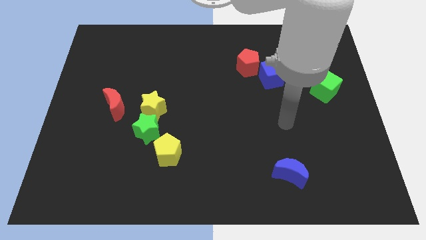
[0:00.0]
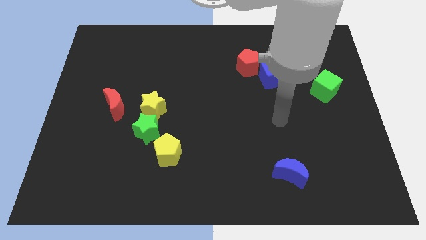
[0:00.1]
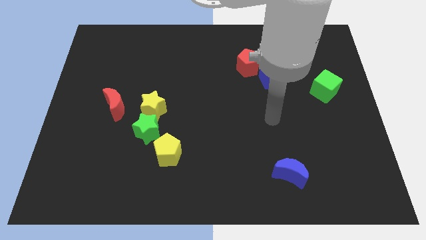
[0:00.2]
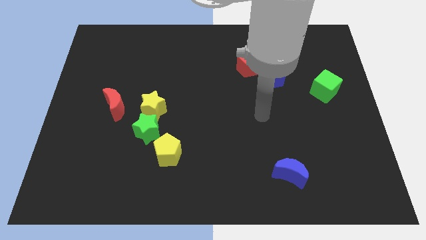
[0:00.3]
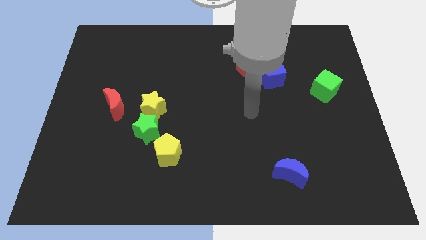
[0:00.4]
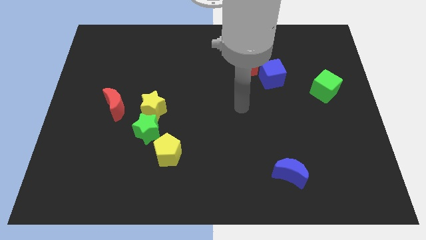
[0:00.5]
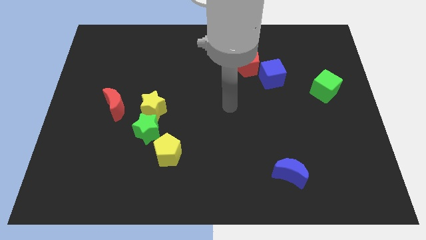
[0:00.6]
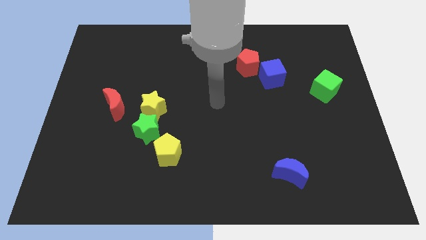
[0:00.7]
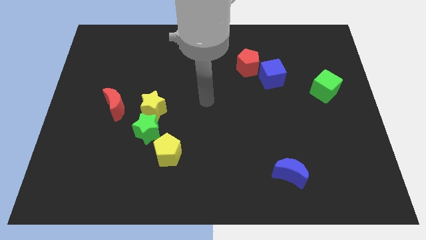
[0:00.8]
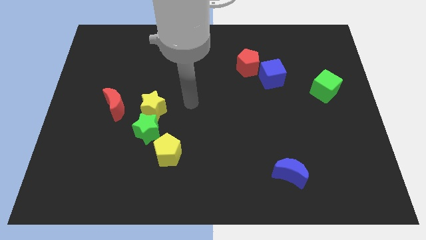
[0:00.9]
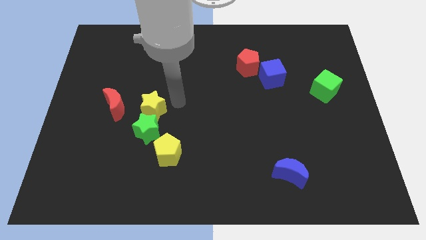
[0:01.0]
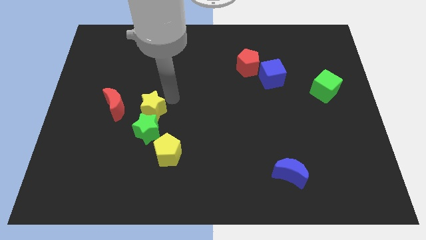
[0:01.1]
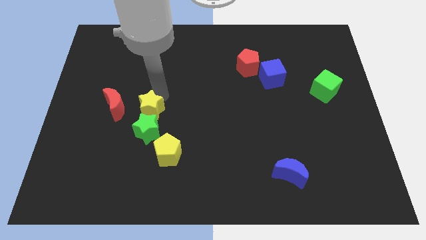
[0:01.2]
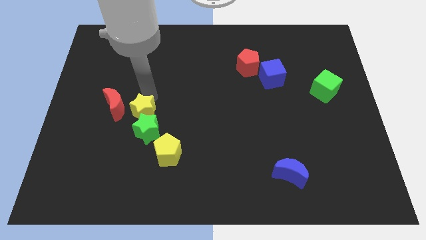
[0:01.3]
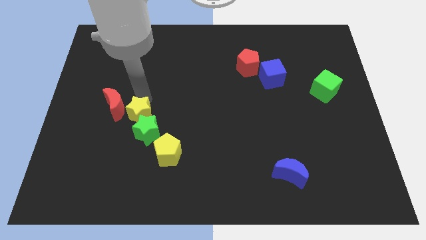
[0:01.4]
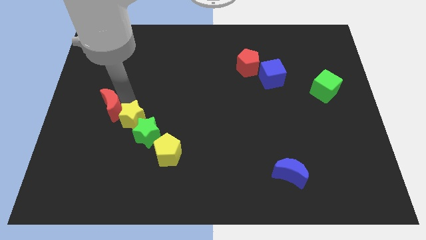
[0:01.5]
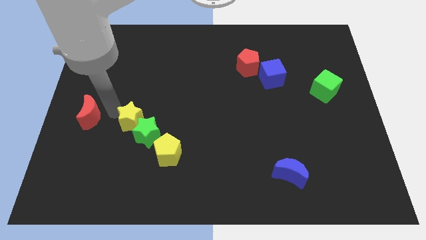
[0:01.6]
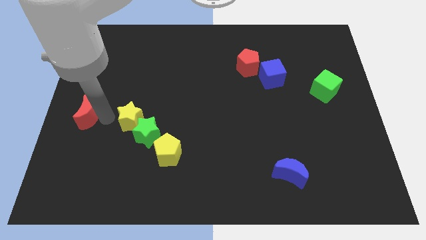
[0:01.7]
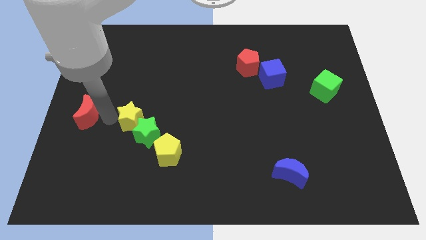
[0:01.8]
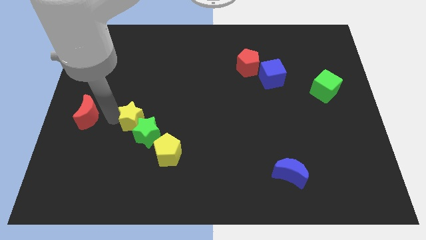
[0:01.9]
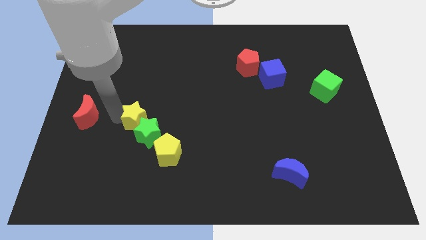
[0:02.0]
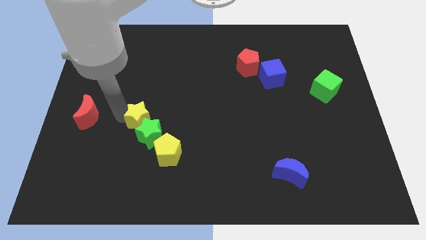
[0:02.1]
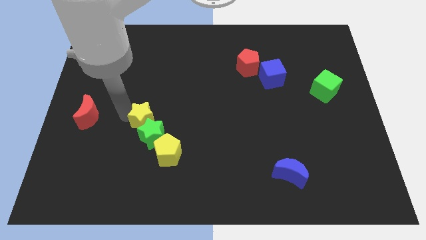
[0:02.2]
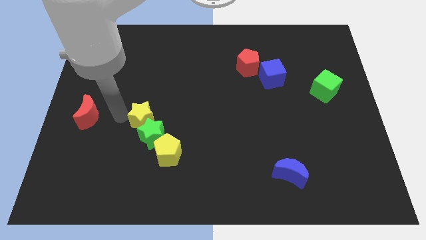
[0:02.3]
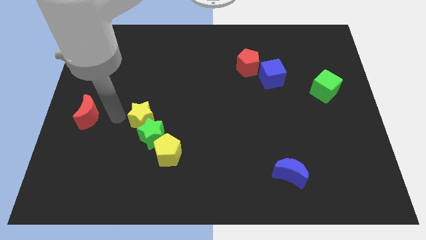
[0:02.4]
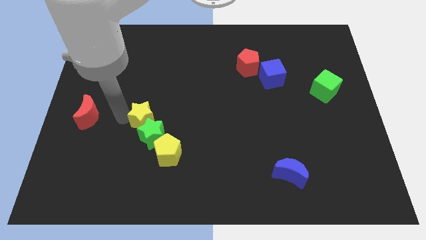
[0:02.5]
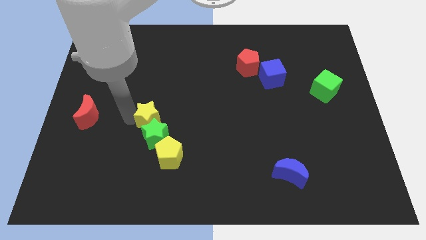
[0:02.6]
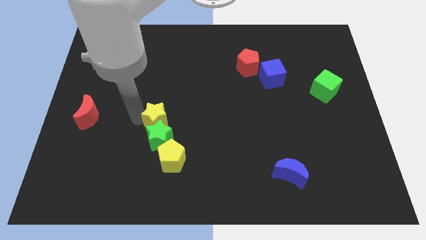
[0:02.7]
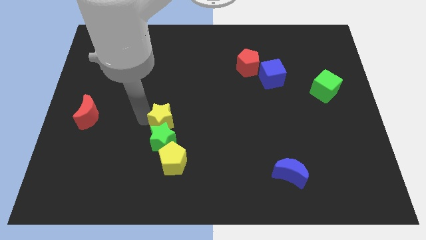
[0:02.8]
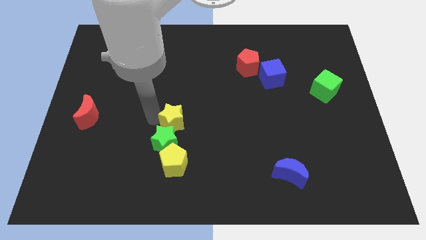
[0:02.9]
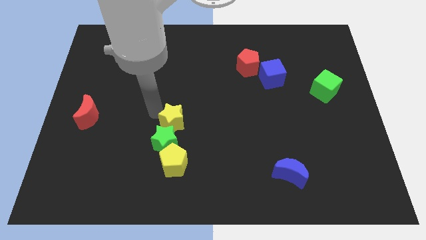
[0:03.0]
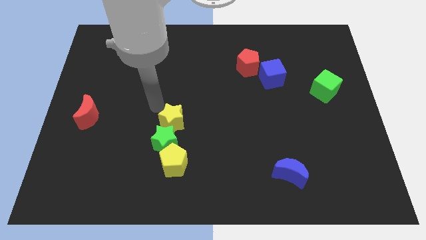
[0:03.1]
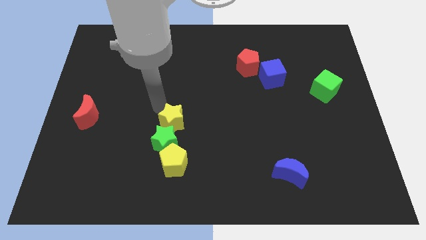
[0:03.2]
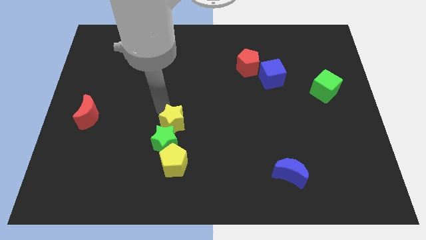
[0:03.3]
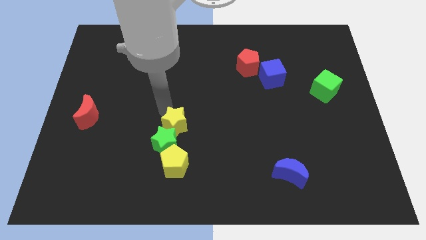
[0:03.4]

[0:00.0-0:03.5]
move the yellow star down and then to the right somewhat

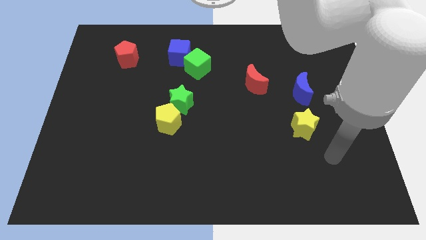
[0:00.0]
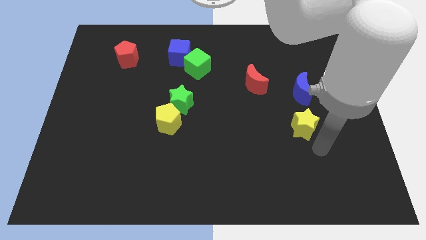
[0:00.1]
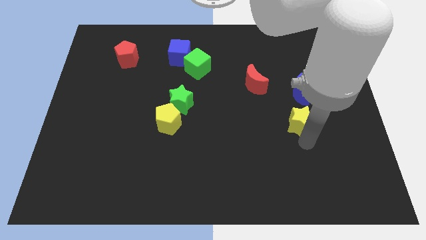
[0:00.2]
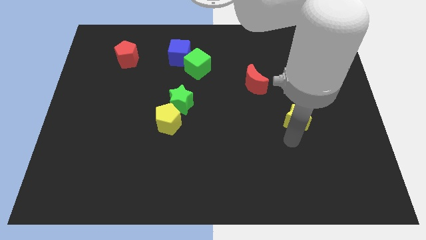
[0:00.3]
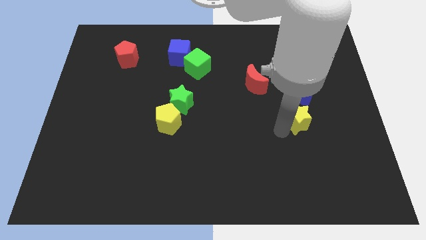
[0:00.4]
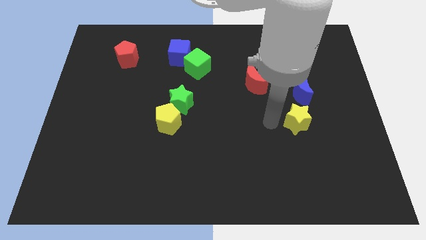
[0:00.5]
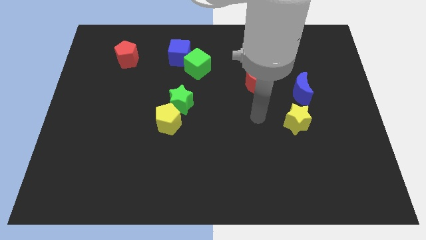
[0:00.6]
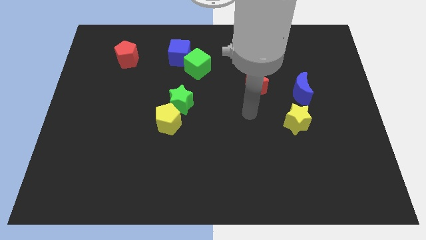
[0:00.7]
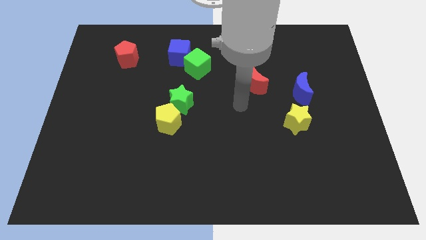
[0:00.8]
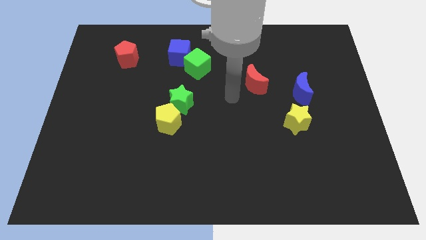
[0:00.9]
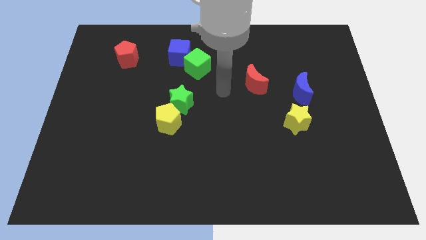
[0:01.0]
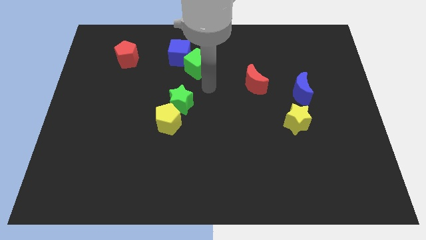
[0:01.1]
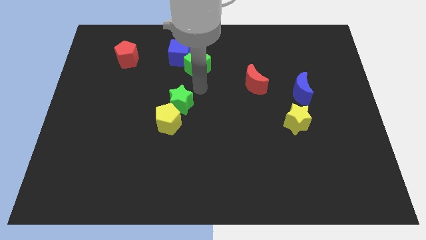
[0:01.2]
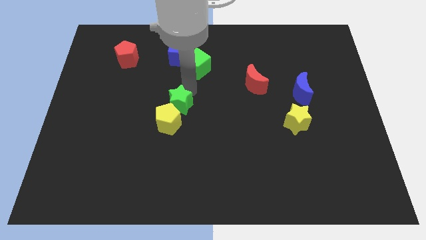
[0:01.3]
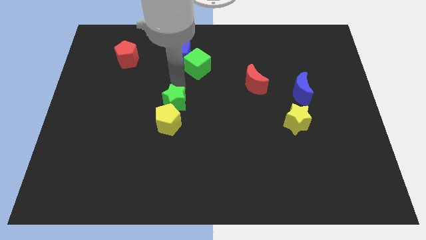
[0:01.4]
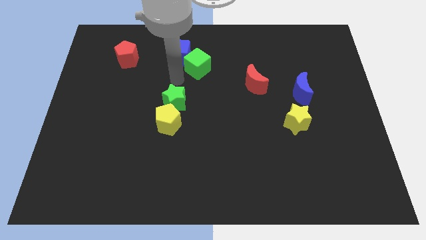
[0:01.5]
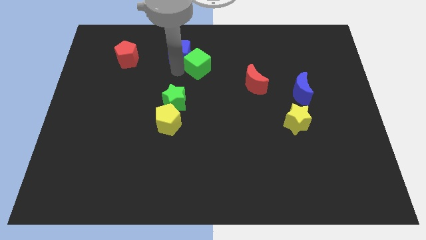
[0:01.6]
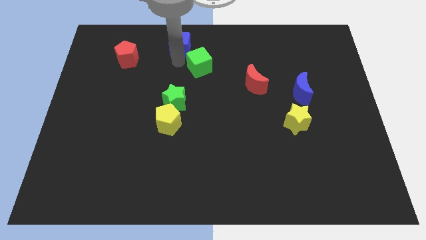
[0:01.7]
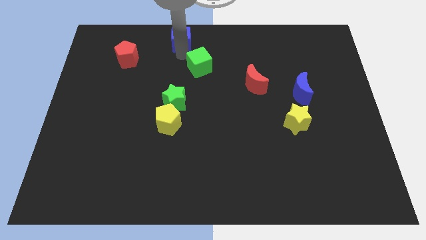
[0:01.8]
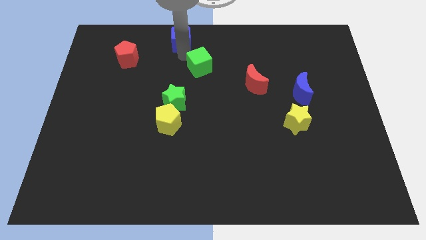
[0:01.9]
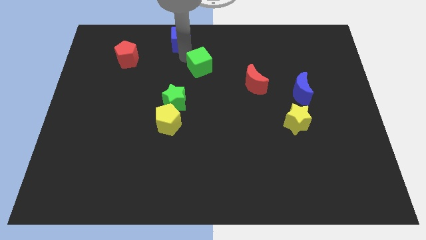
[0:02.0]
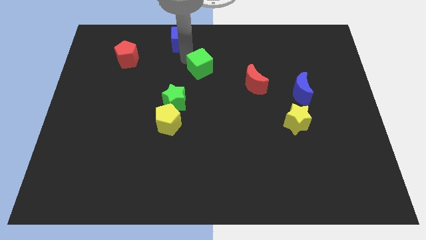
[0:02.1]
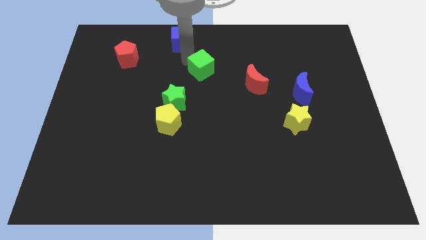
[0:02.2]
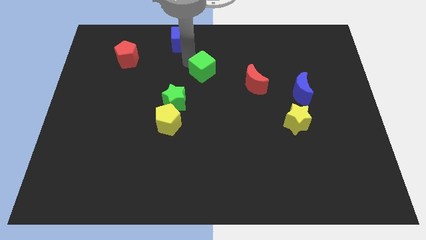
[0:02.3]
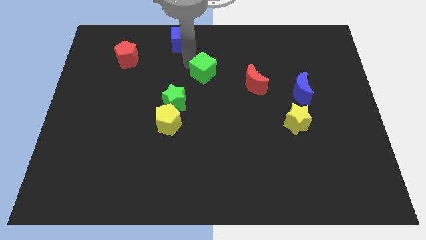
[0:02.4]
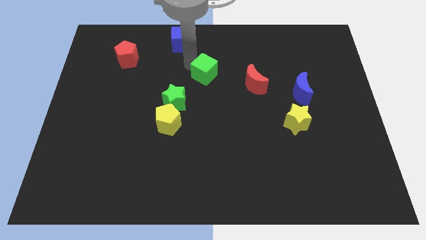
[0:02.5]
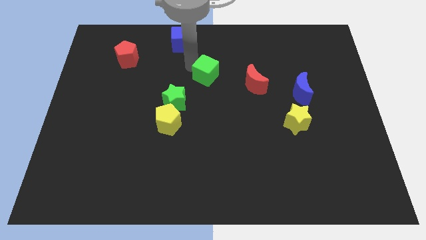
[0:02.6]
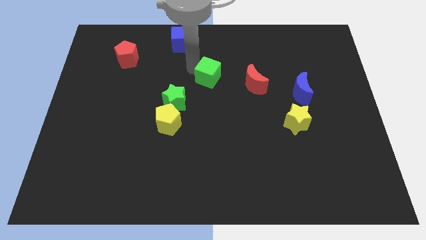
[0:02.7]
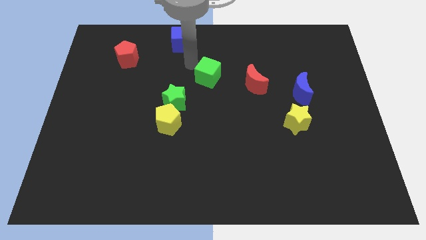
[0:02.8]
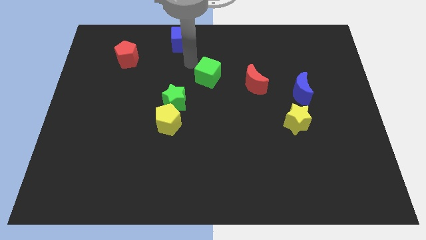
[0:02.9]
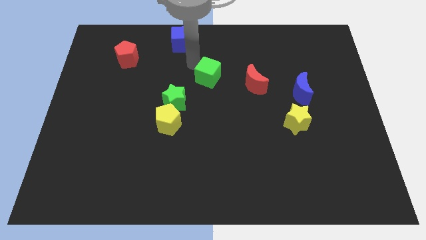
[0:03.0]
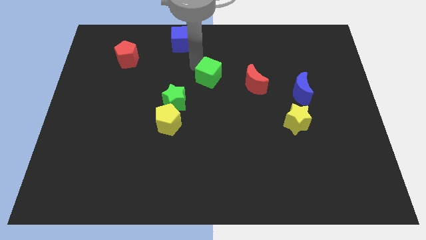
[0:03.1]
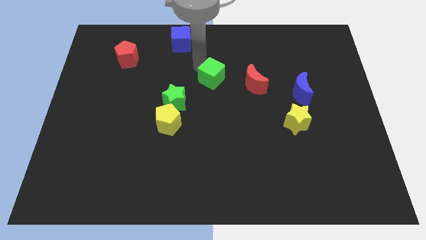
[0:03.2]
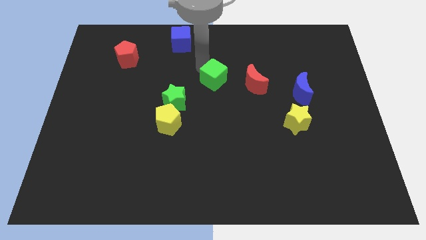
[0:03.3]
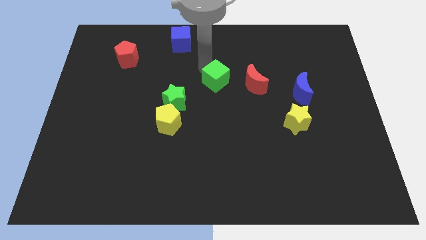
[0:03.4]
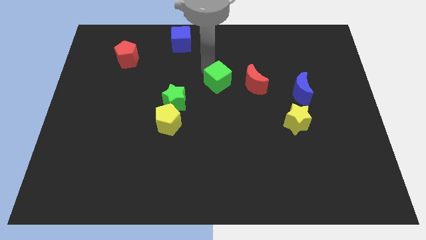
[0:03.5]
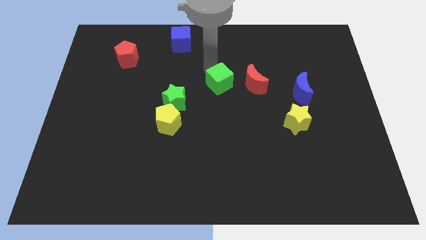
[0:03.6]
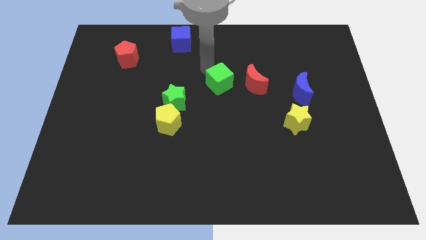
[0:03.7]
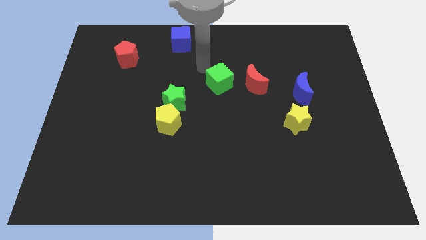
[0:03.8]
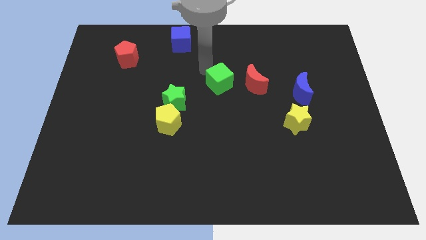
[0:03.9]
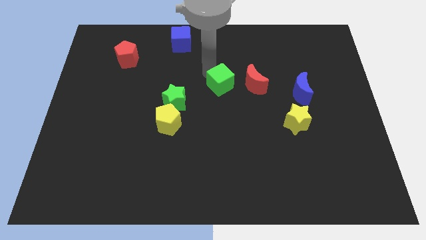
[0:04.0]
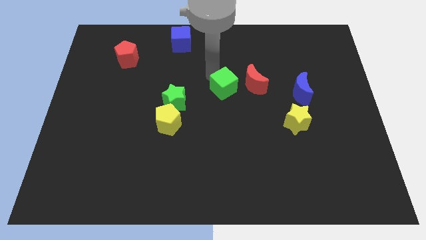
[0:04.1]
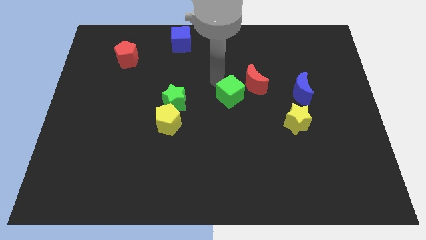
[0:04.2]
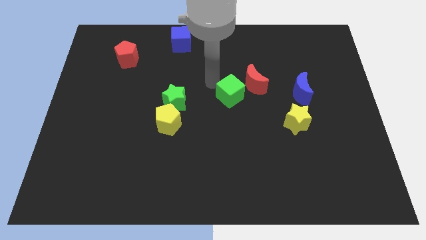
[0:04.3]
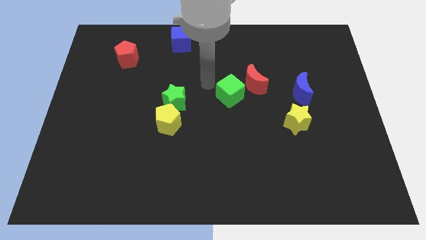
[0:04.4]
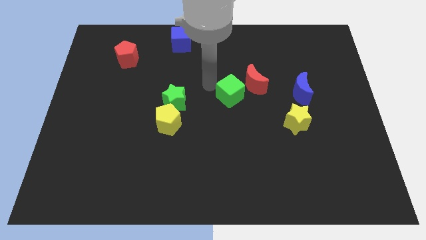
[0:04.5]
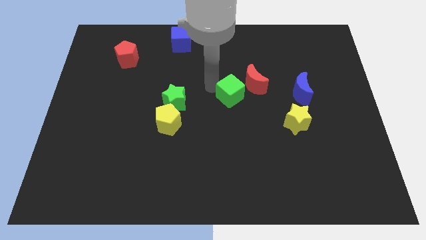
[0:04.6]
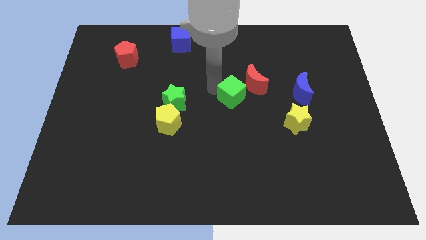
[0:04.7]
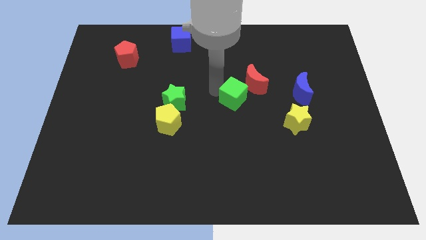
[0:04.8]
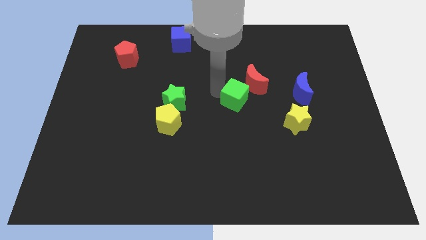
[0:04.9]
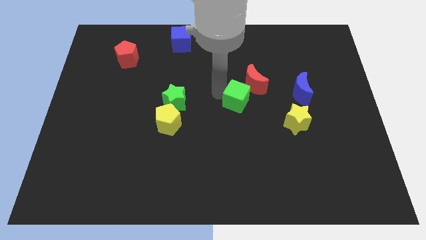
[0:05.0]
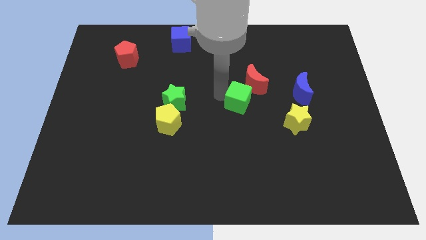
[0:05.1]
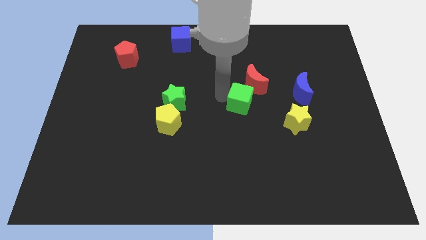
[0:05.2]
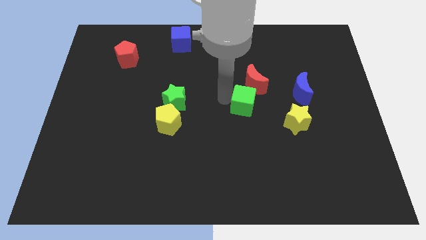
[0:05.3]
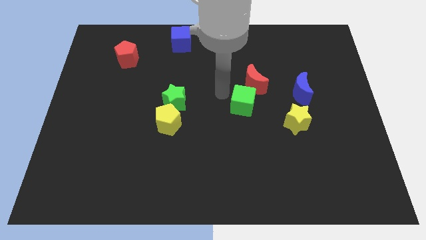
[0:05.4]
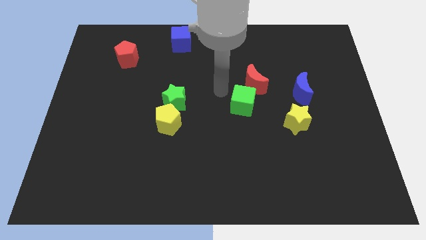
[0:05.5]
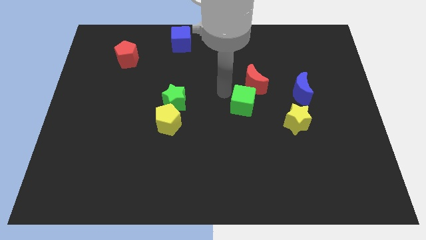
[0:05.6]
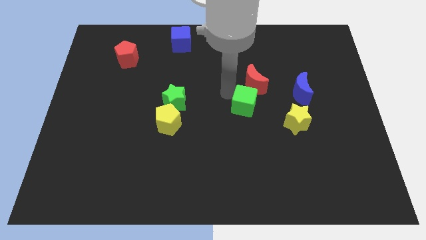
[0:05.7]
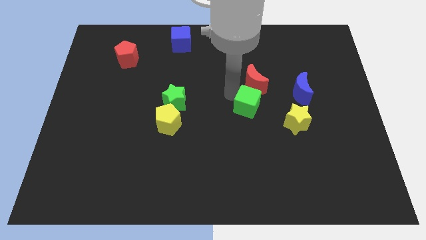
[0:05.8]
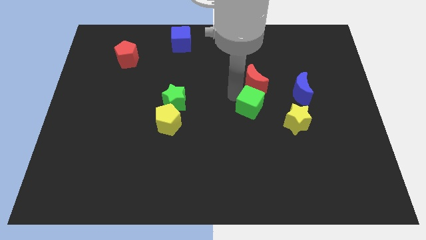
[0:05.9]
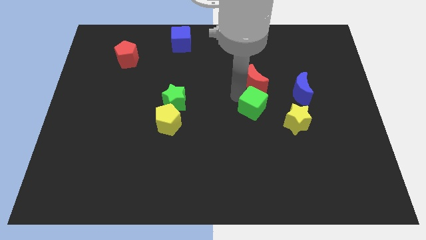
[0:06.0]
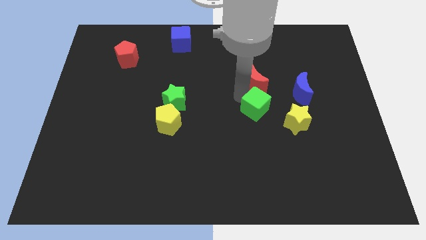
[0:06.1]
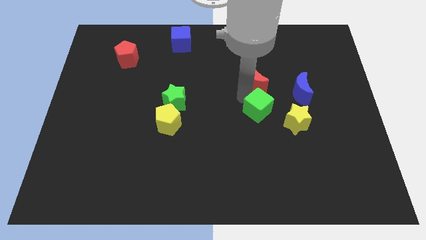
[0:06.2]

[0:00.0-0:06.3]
push the green cube down and to the right diagonally
